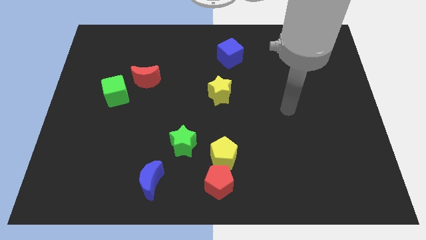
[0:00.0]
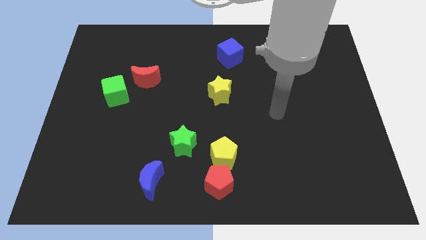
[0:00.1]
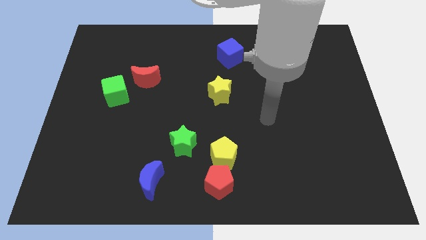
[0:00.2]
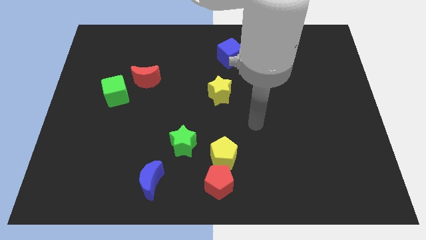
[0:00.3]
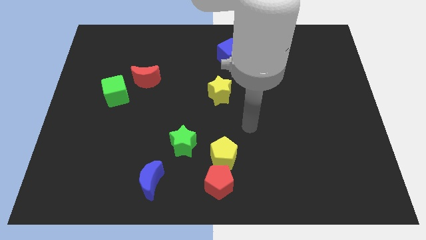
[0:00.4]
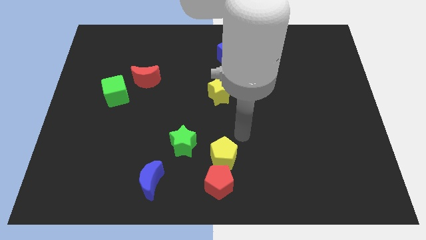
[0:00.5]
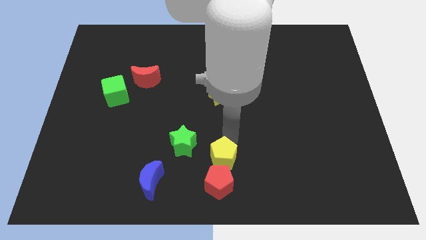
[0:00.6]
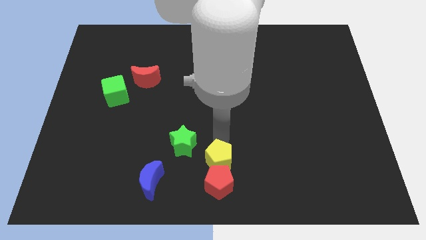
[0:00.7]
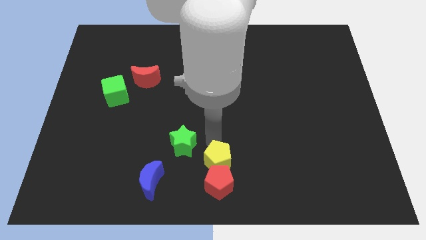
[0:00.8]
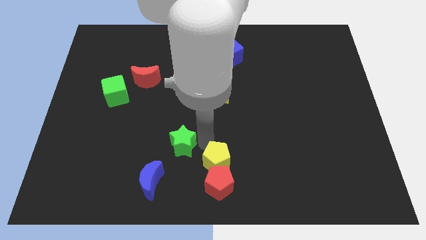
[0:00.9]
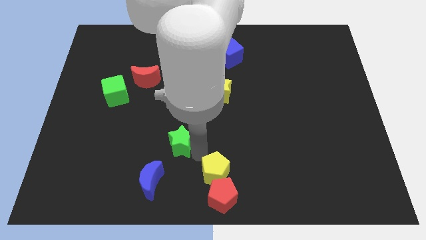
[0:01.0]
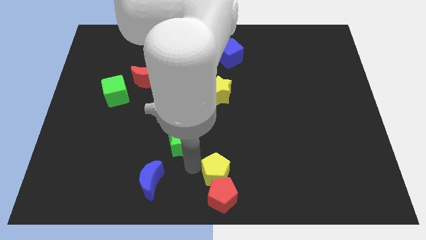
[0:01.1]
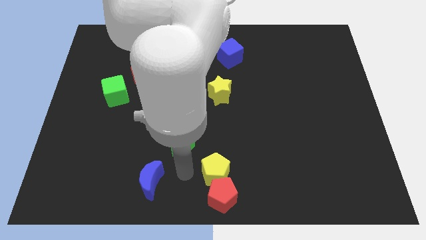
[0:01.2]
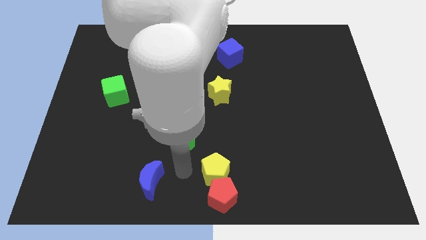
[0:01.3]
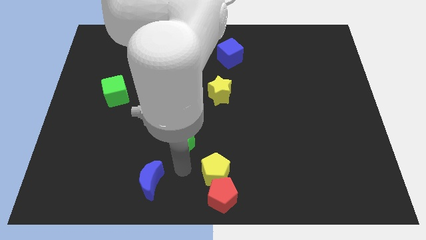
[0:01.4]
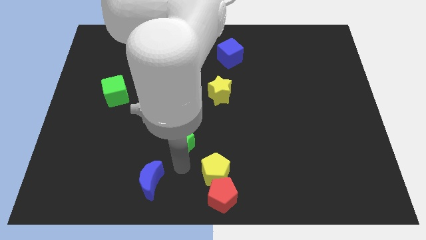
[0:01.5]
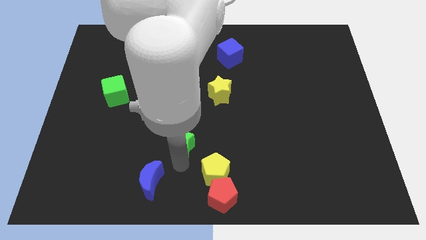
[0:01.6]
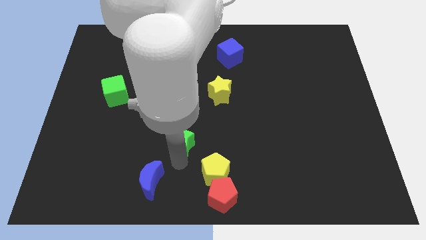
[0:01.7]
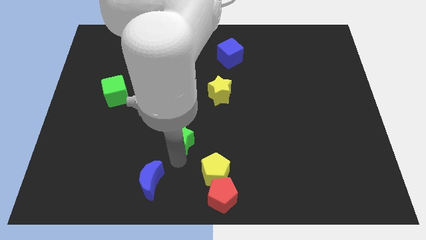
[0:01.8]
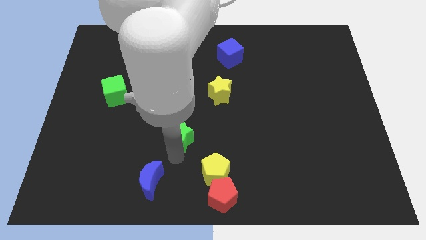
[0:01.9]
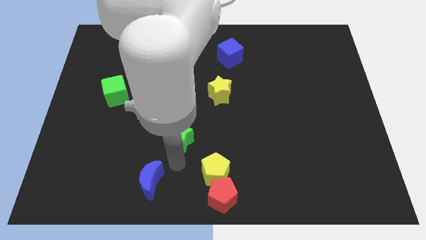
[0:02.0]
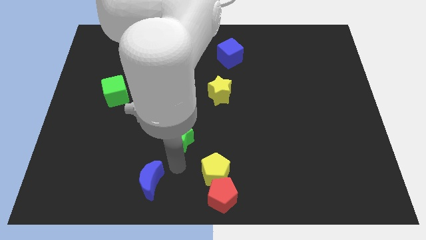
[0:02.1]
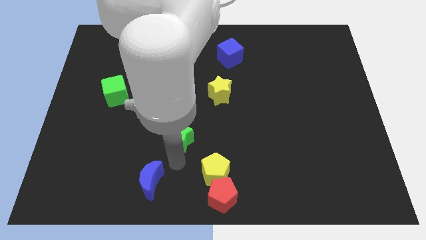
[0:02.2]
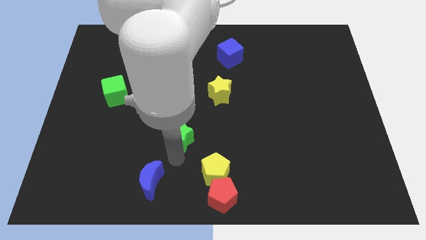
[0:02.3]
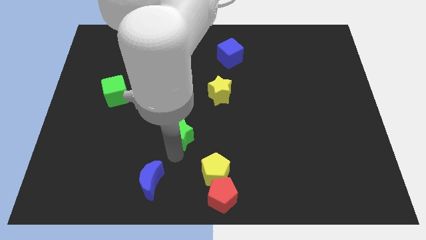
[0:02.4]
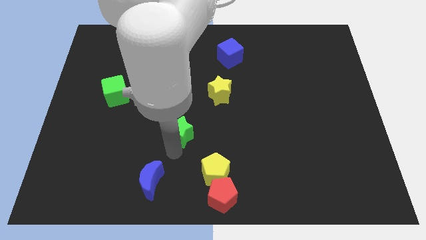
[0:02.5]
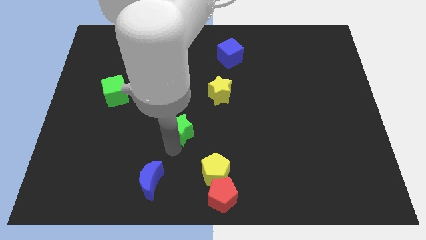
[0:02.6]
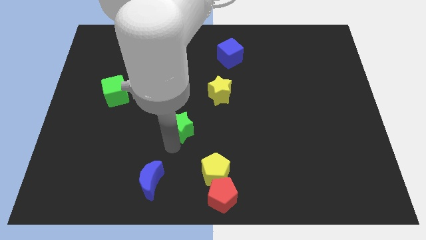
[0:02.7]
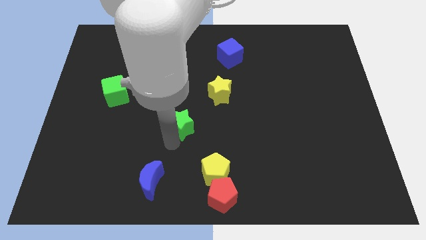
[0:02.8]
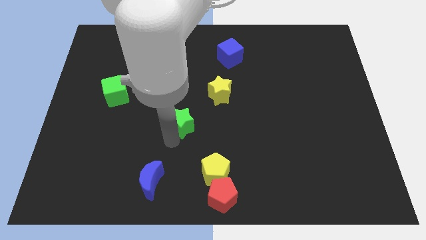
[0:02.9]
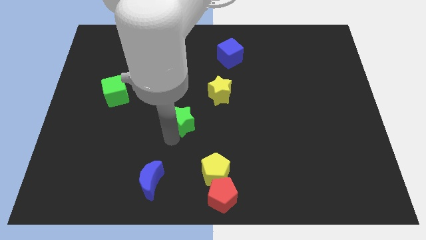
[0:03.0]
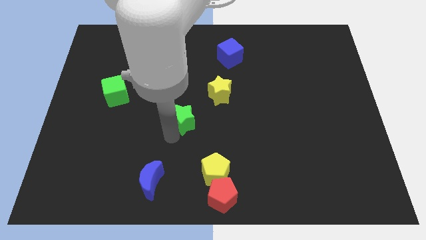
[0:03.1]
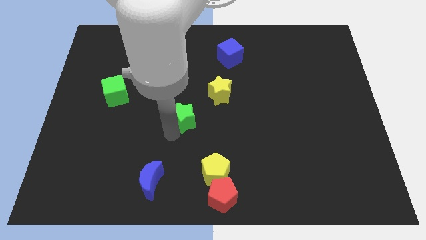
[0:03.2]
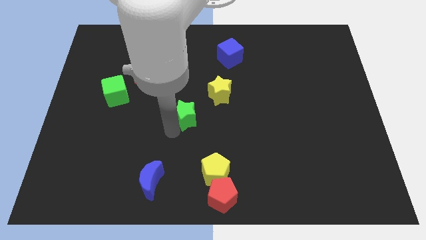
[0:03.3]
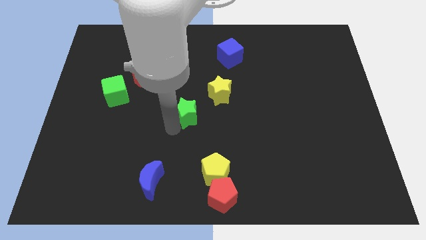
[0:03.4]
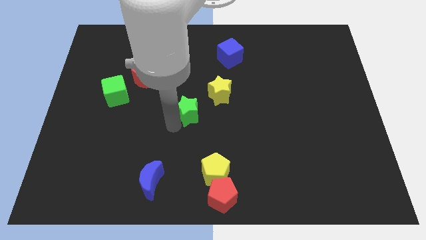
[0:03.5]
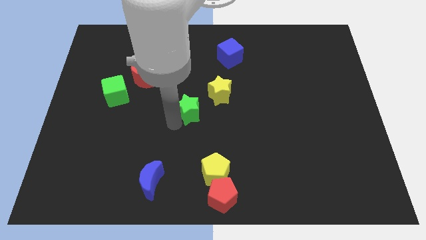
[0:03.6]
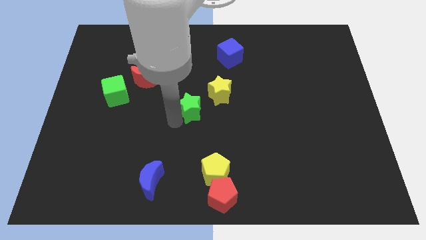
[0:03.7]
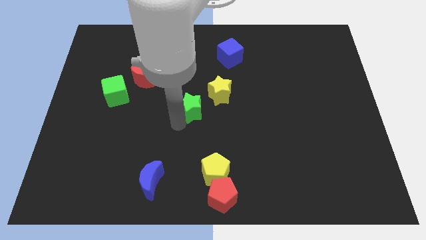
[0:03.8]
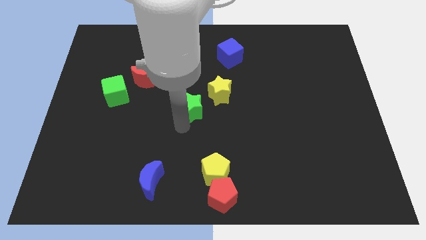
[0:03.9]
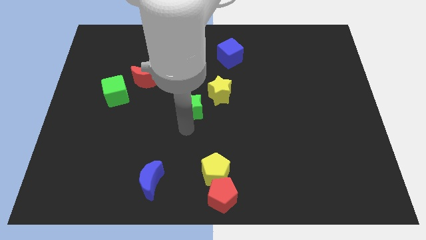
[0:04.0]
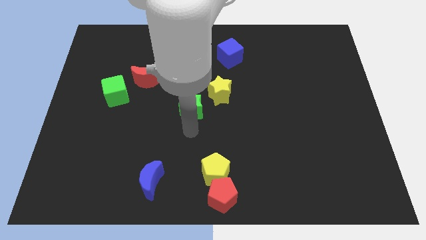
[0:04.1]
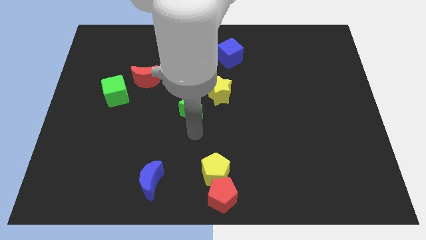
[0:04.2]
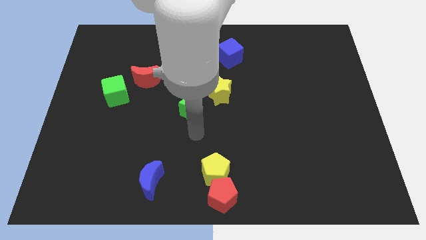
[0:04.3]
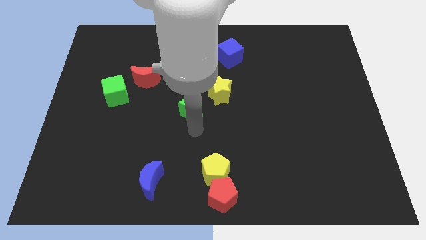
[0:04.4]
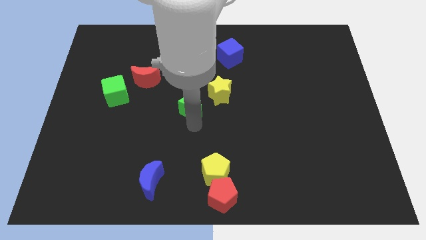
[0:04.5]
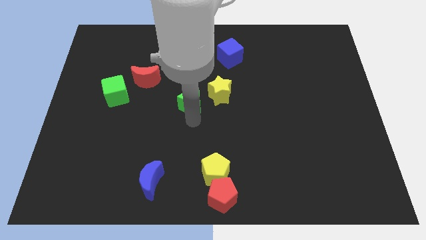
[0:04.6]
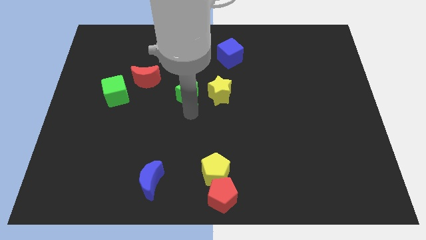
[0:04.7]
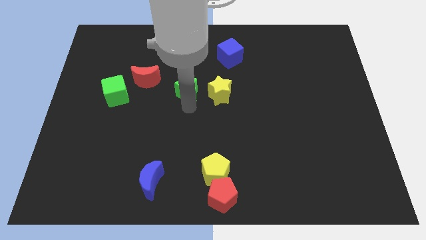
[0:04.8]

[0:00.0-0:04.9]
push the green star right of the red moon

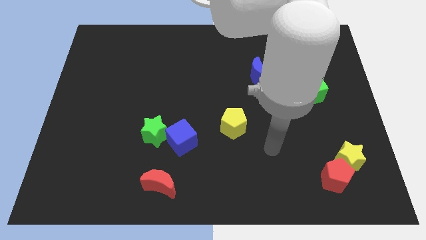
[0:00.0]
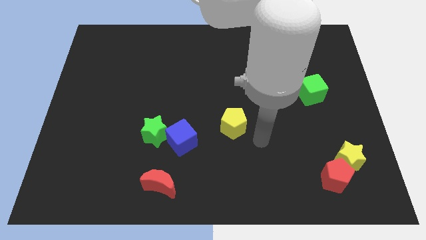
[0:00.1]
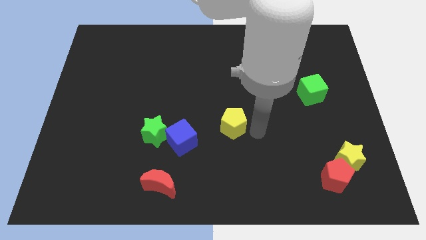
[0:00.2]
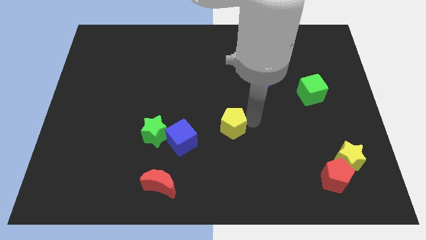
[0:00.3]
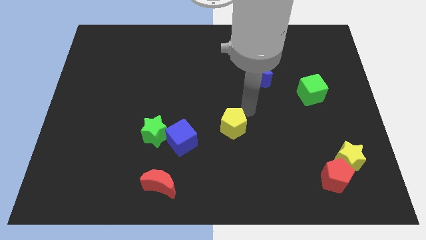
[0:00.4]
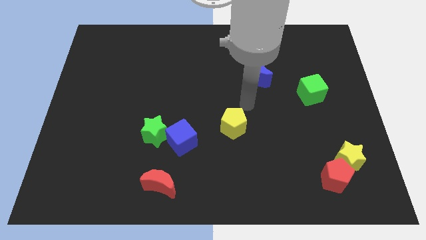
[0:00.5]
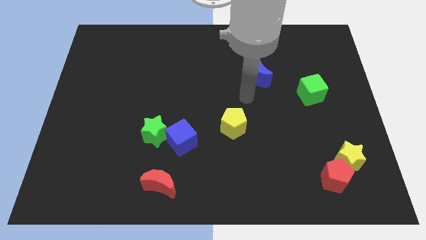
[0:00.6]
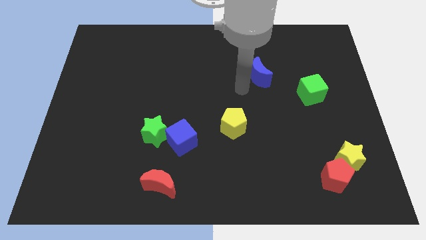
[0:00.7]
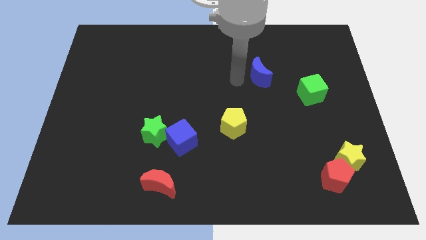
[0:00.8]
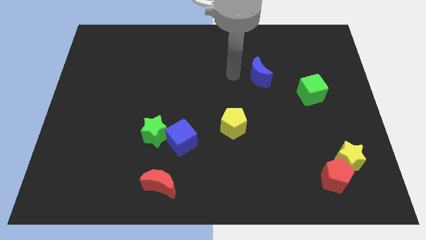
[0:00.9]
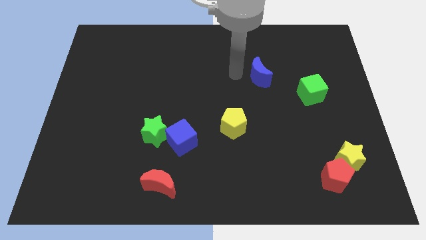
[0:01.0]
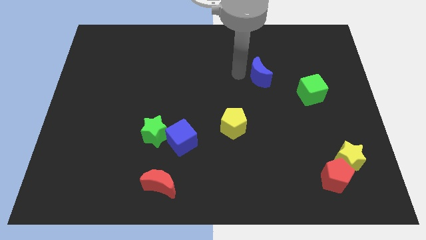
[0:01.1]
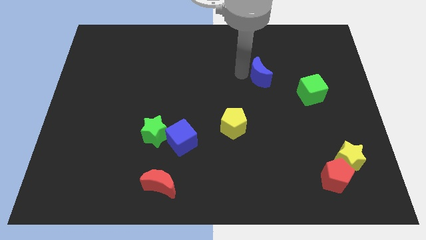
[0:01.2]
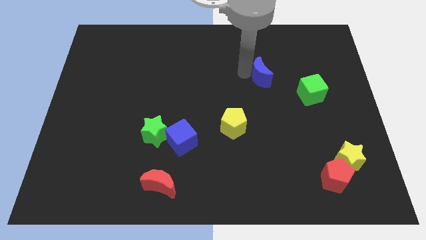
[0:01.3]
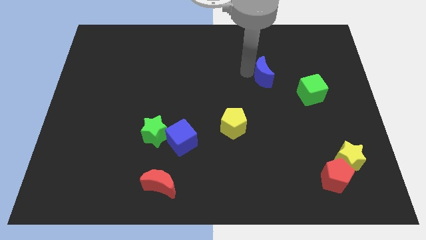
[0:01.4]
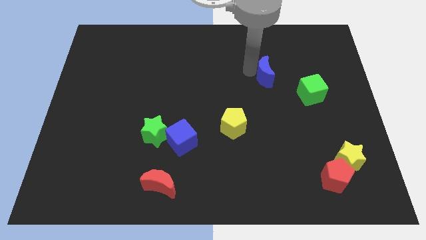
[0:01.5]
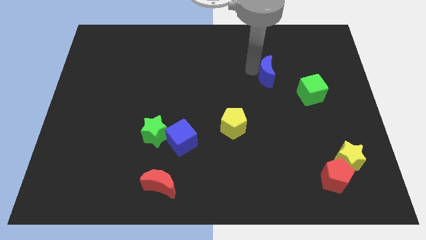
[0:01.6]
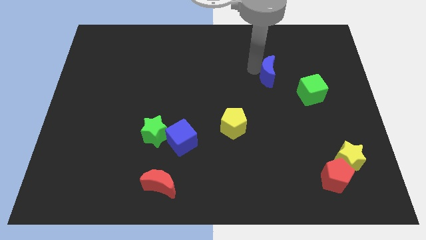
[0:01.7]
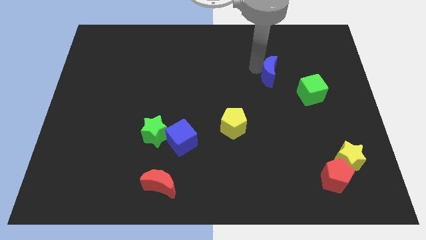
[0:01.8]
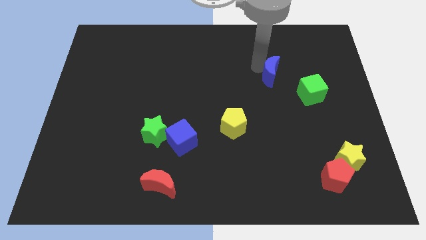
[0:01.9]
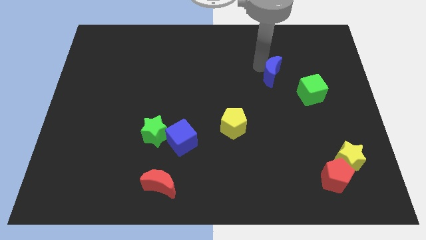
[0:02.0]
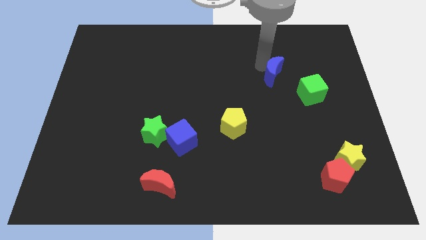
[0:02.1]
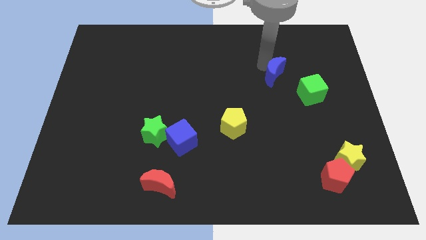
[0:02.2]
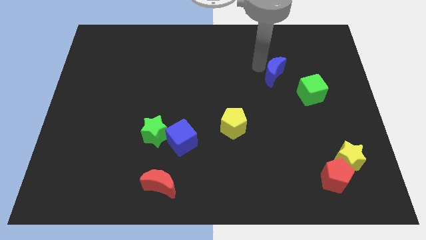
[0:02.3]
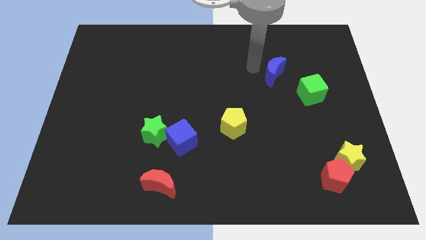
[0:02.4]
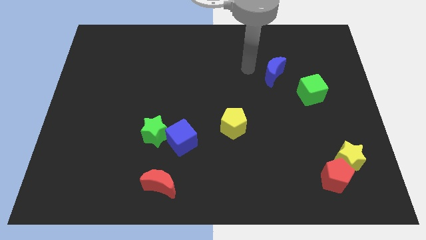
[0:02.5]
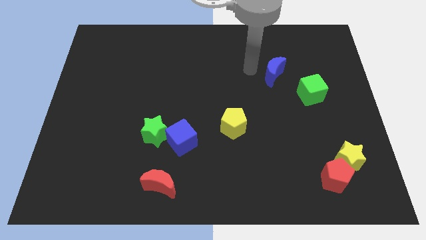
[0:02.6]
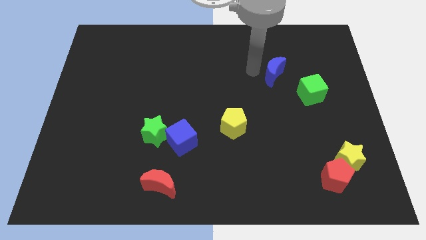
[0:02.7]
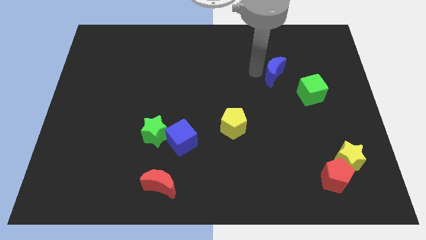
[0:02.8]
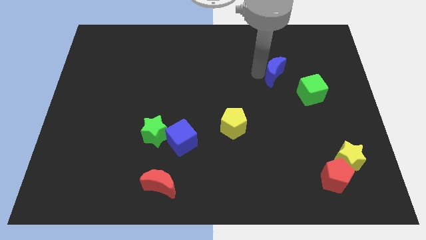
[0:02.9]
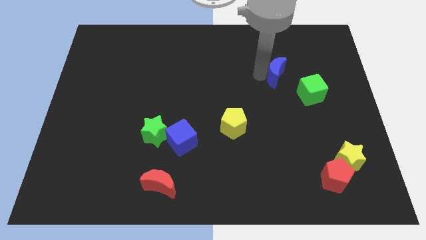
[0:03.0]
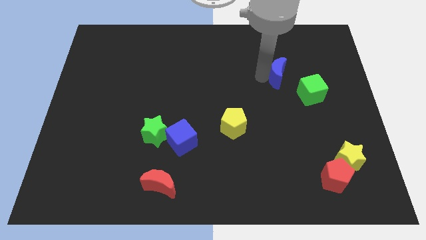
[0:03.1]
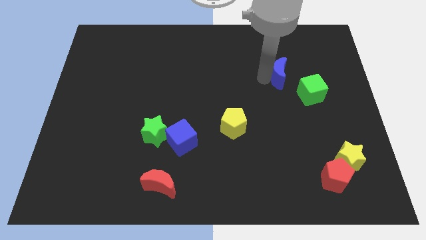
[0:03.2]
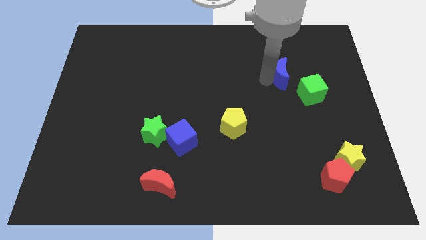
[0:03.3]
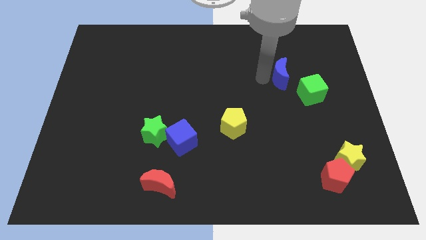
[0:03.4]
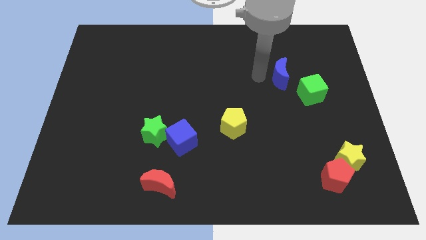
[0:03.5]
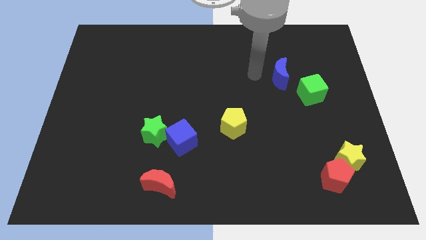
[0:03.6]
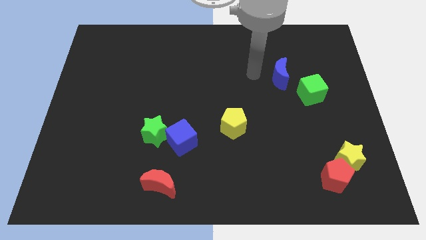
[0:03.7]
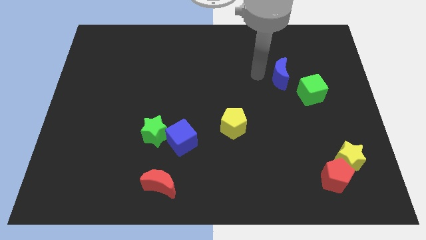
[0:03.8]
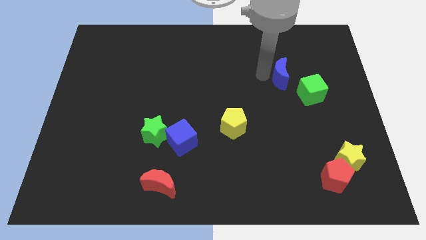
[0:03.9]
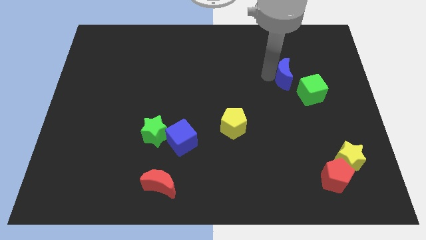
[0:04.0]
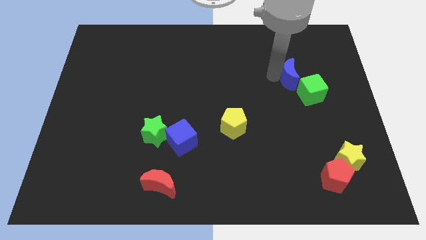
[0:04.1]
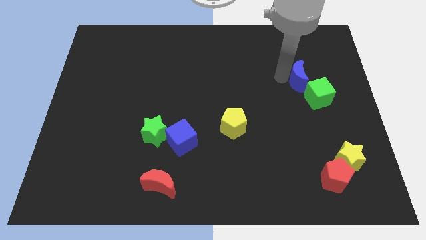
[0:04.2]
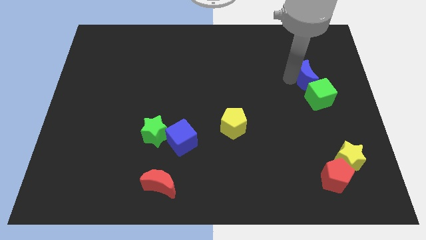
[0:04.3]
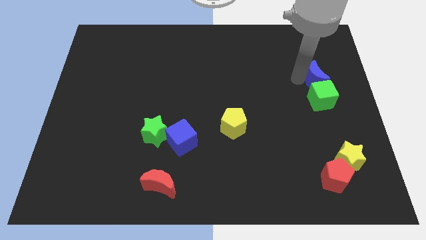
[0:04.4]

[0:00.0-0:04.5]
put the blue moon diagonally up and to the right of the green cube
